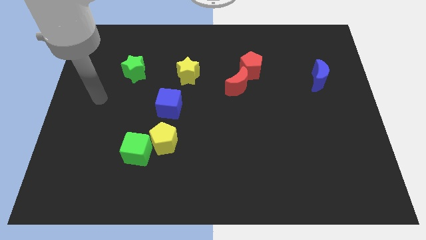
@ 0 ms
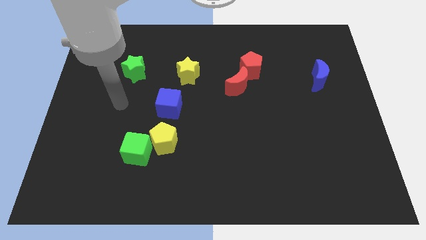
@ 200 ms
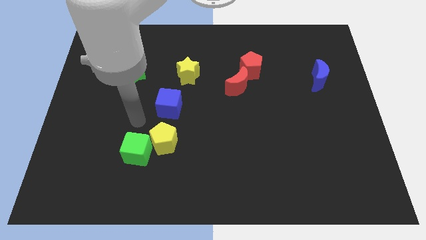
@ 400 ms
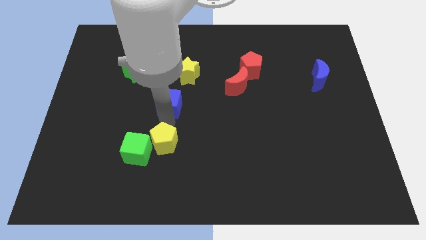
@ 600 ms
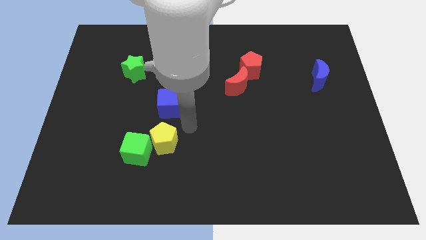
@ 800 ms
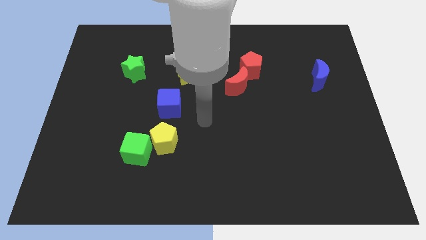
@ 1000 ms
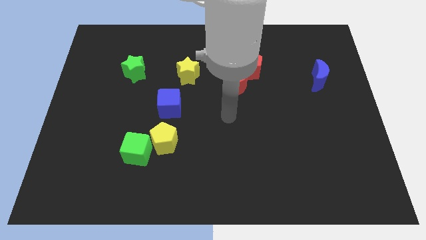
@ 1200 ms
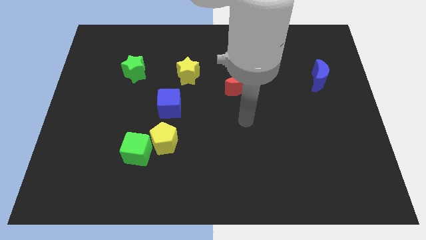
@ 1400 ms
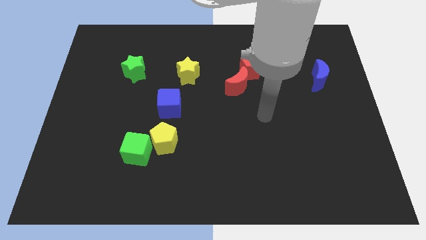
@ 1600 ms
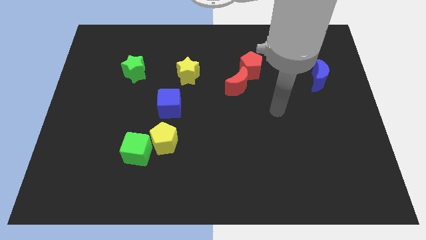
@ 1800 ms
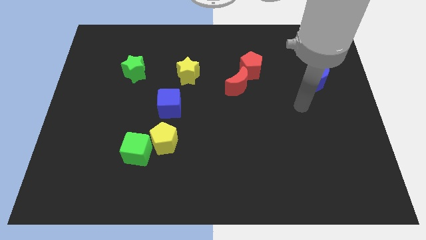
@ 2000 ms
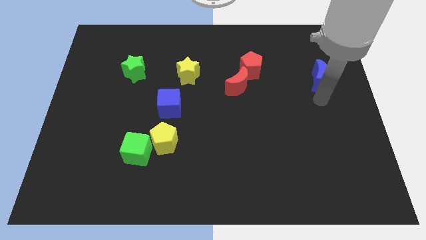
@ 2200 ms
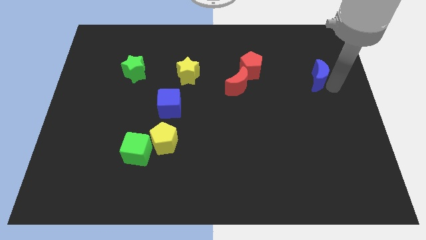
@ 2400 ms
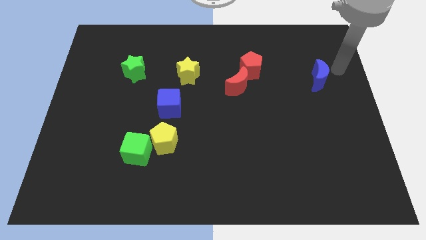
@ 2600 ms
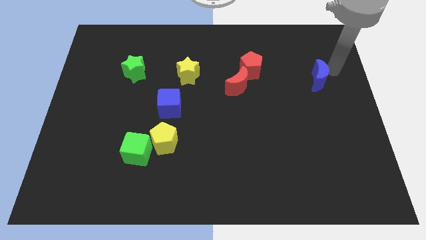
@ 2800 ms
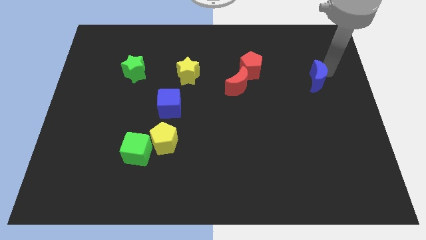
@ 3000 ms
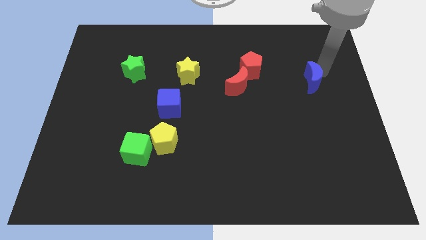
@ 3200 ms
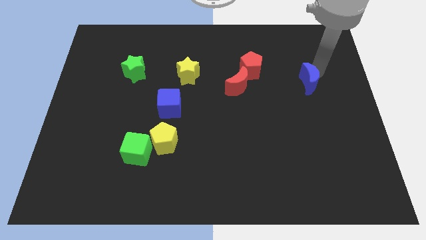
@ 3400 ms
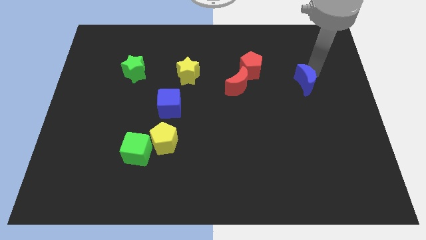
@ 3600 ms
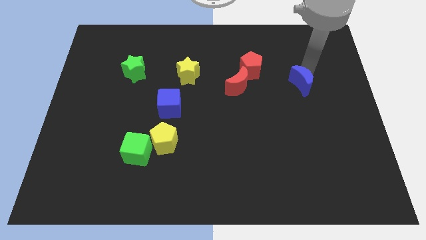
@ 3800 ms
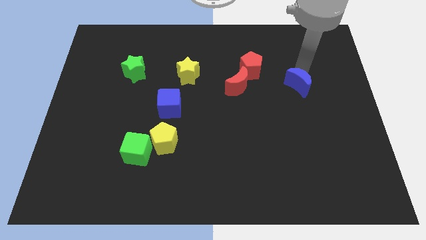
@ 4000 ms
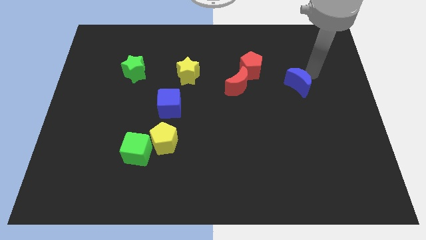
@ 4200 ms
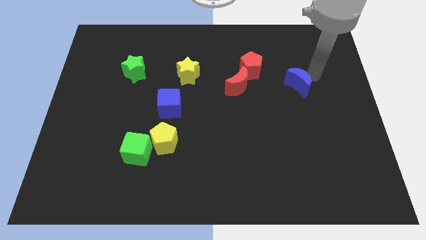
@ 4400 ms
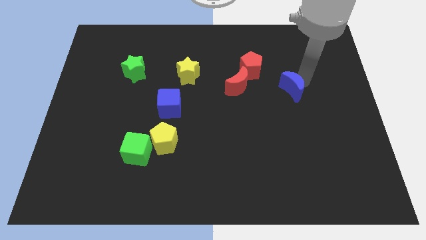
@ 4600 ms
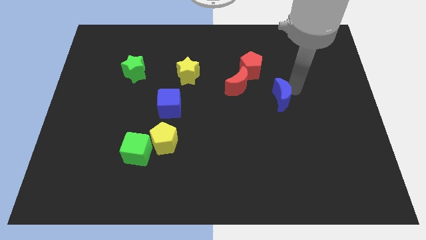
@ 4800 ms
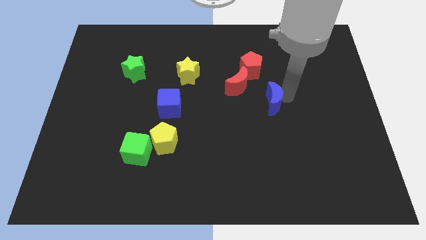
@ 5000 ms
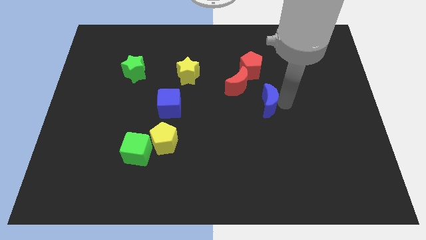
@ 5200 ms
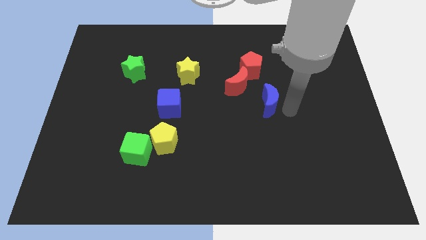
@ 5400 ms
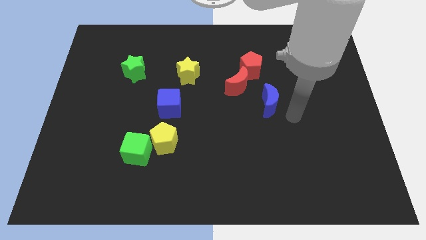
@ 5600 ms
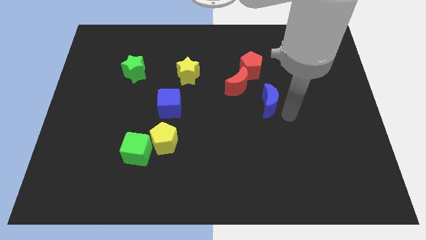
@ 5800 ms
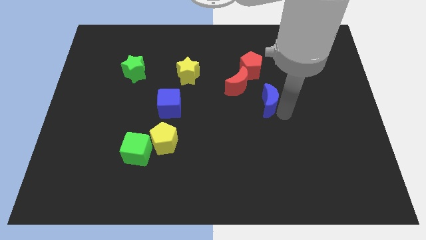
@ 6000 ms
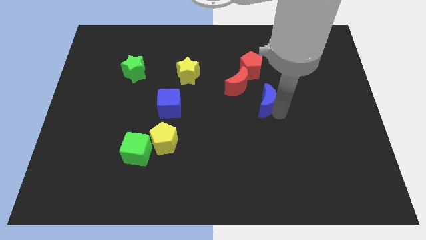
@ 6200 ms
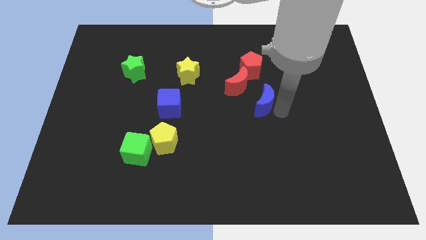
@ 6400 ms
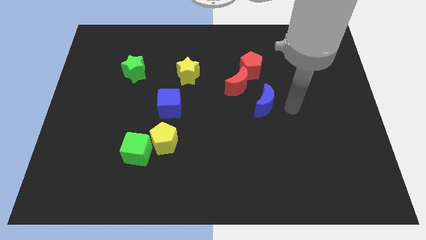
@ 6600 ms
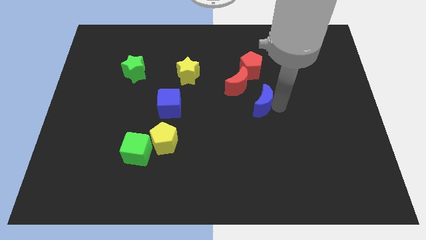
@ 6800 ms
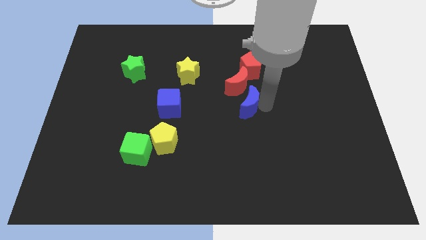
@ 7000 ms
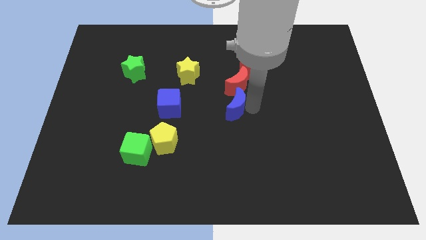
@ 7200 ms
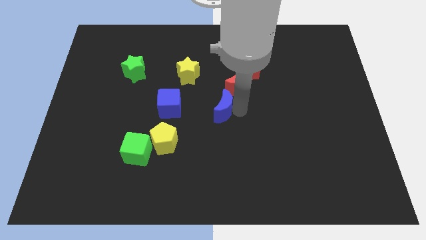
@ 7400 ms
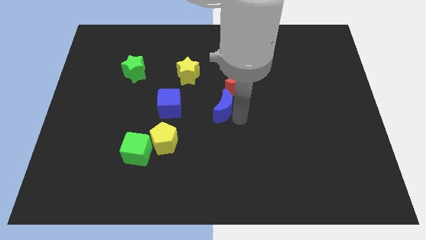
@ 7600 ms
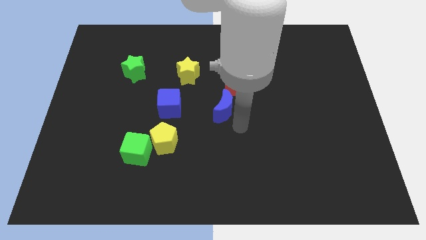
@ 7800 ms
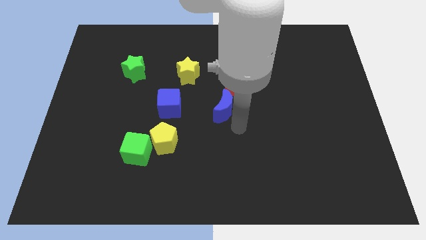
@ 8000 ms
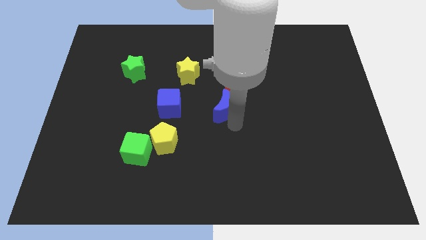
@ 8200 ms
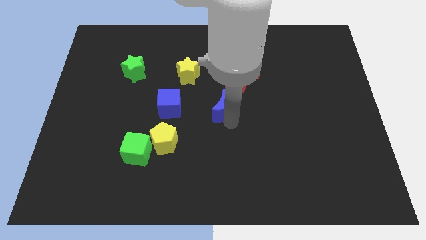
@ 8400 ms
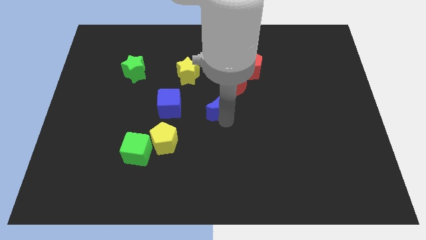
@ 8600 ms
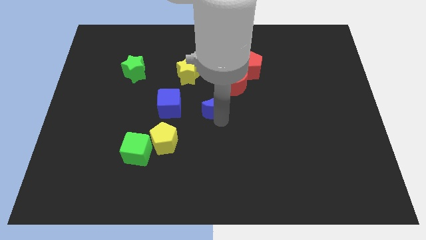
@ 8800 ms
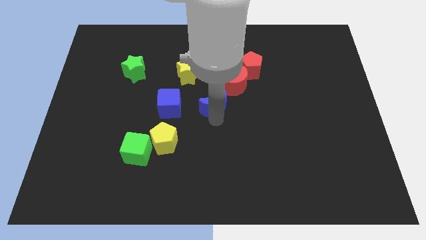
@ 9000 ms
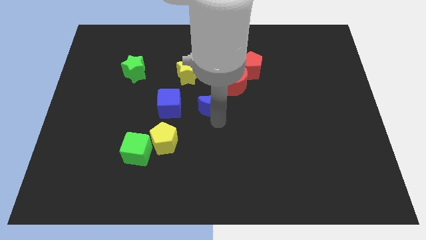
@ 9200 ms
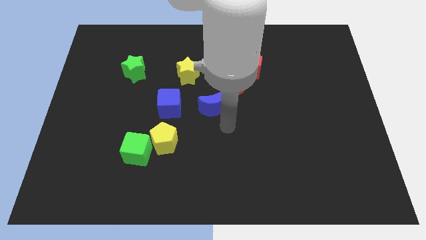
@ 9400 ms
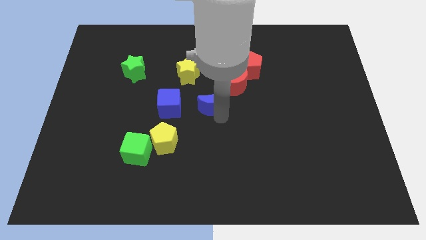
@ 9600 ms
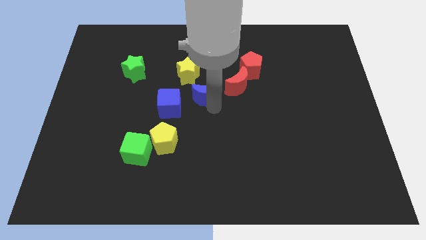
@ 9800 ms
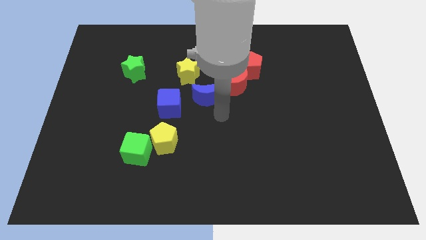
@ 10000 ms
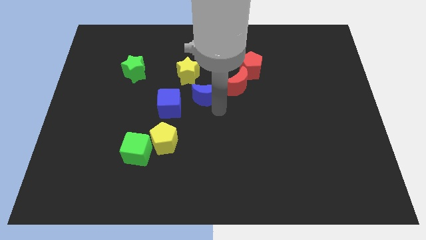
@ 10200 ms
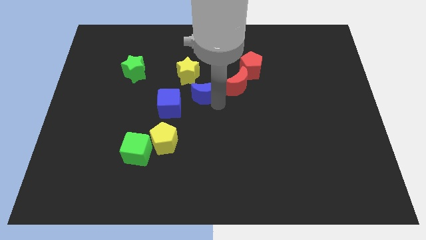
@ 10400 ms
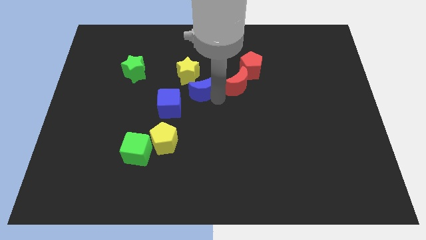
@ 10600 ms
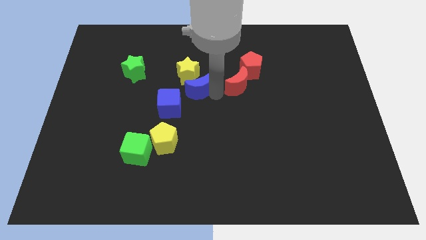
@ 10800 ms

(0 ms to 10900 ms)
move the blue moon close to the yellow star

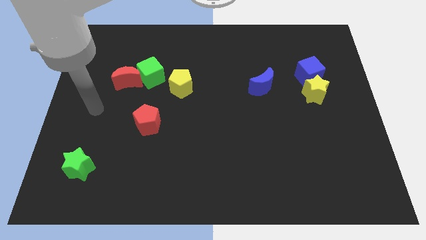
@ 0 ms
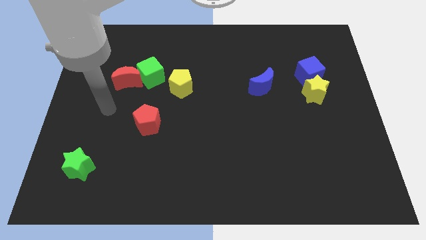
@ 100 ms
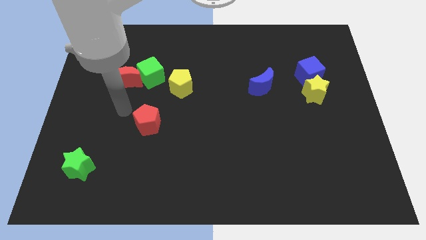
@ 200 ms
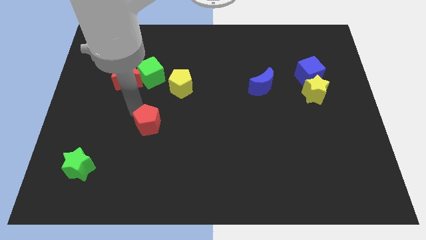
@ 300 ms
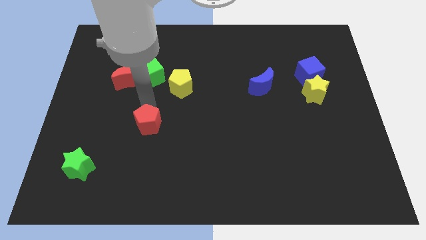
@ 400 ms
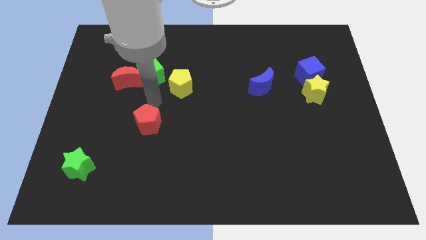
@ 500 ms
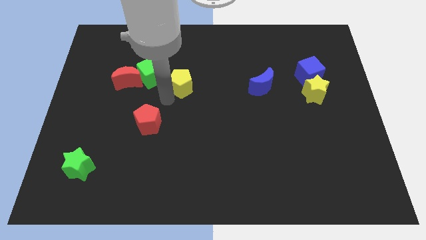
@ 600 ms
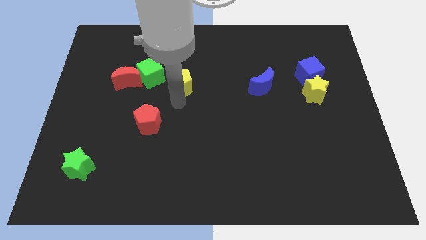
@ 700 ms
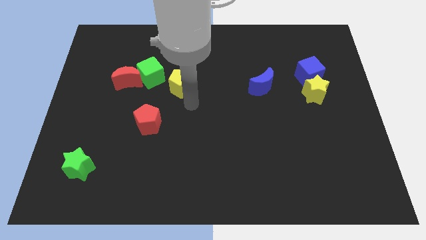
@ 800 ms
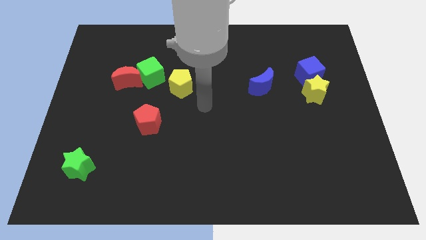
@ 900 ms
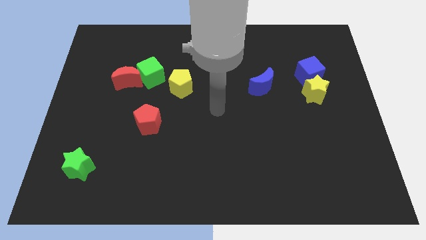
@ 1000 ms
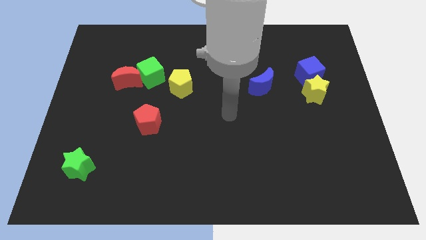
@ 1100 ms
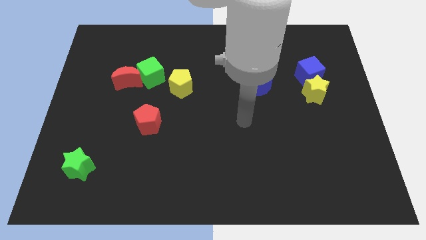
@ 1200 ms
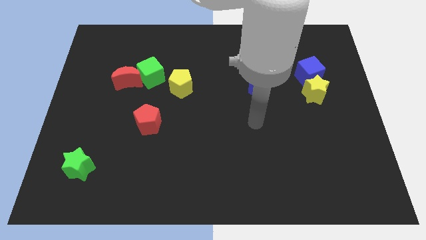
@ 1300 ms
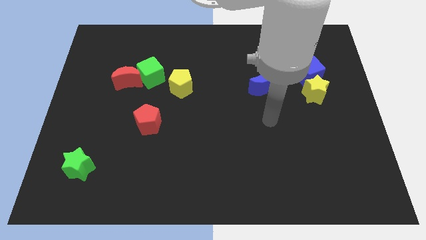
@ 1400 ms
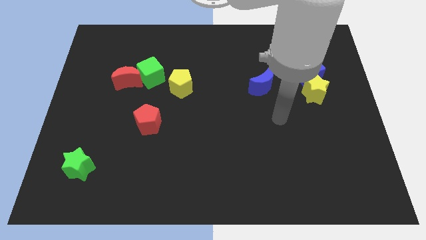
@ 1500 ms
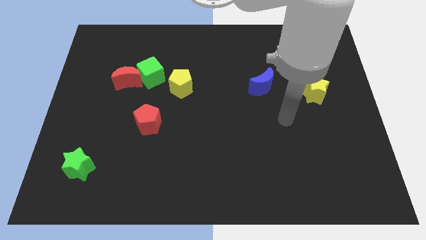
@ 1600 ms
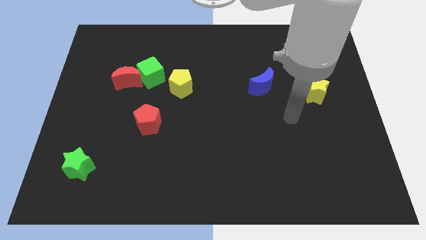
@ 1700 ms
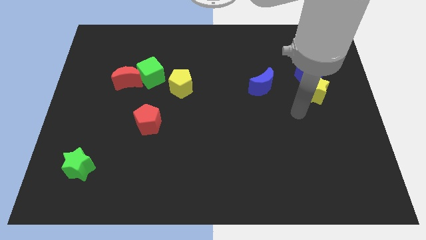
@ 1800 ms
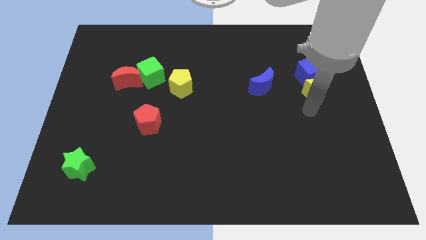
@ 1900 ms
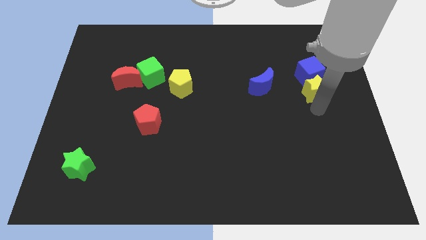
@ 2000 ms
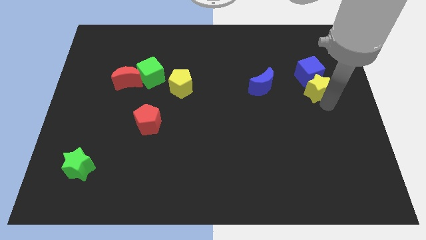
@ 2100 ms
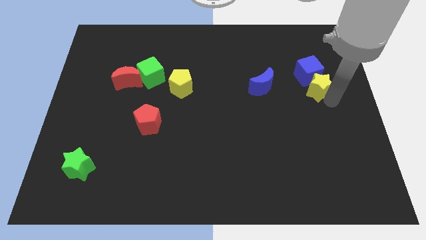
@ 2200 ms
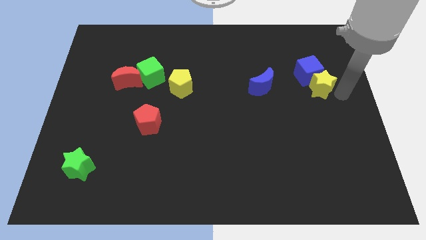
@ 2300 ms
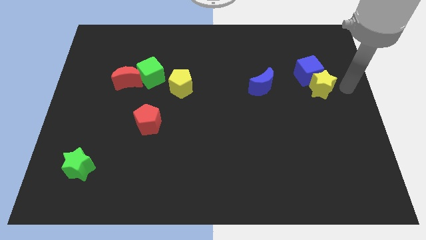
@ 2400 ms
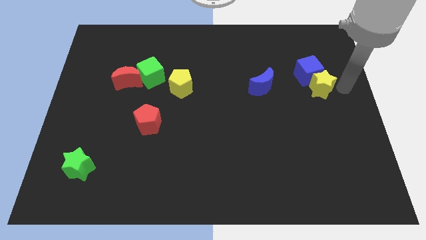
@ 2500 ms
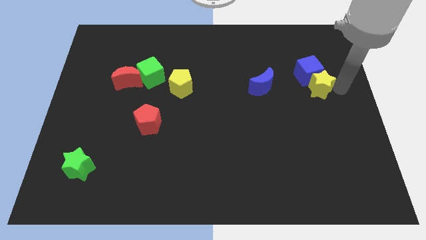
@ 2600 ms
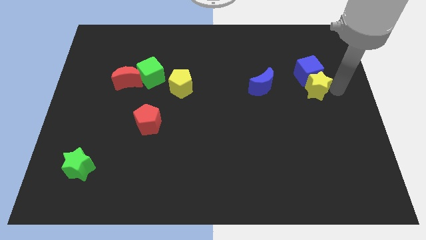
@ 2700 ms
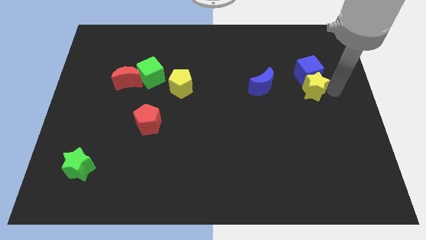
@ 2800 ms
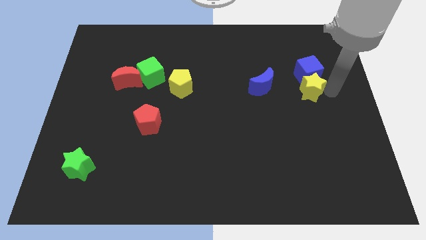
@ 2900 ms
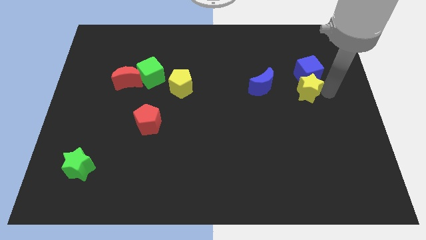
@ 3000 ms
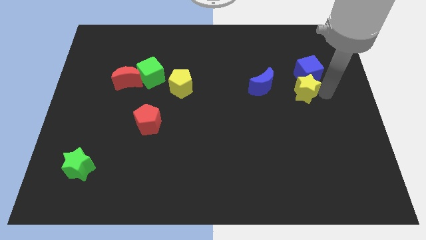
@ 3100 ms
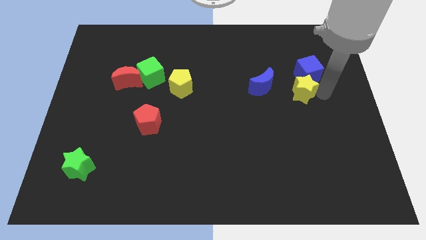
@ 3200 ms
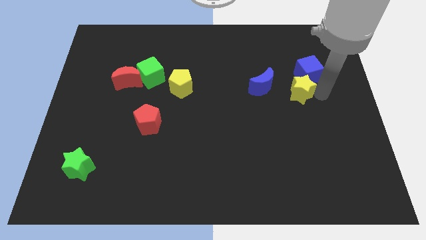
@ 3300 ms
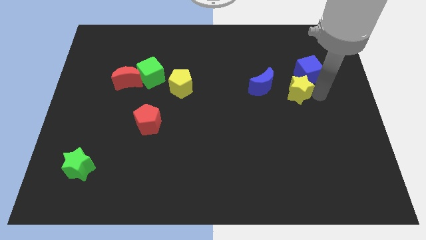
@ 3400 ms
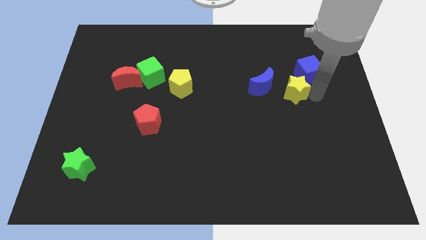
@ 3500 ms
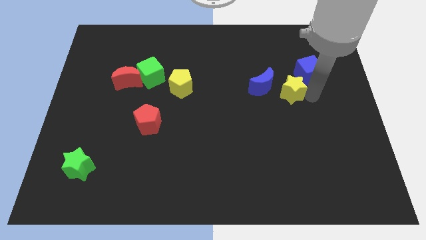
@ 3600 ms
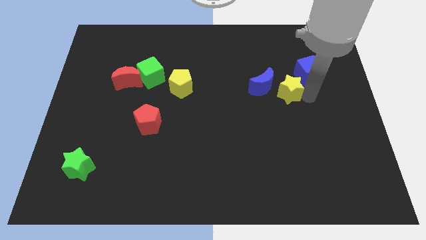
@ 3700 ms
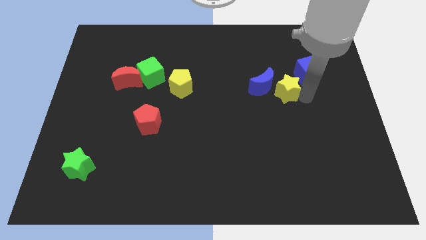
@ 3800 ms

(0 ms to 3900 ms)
move the yellow star close to the blue moon
